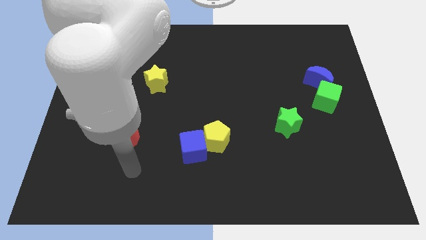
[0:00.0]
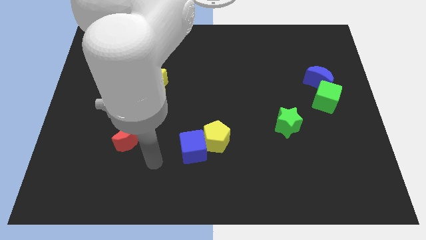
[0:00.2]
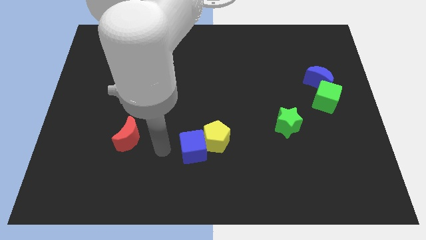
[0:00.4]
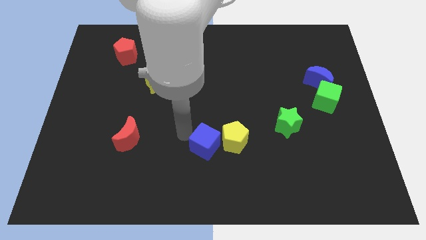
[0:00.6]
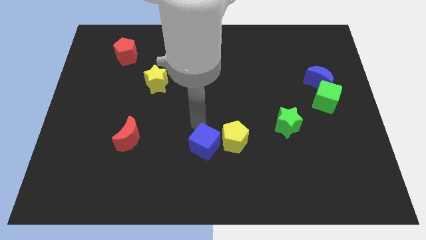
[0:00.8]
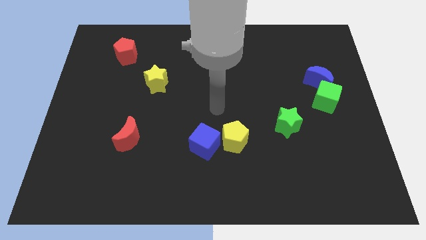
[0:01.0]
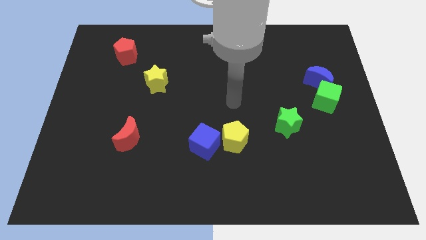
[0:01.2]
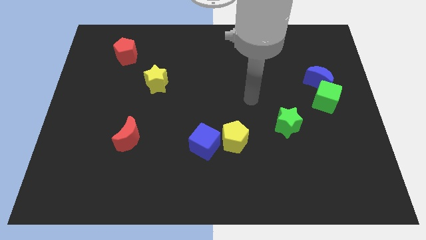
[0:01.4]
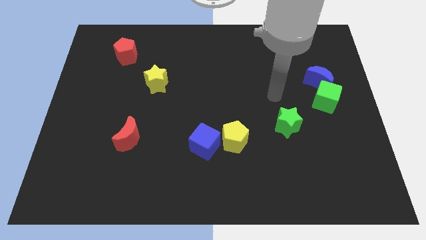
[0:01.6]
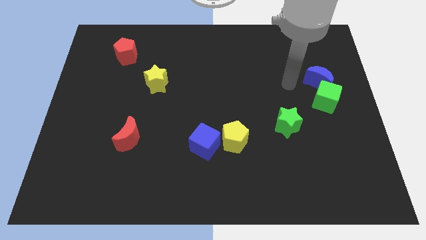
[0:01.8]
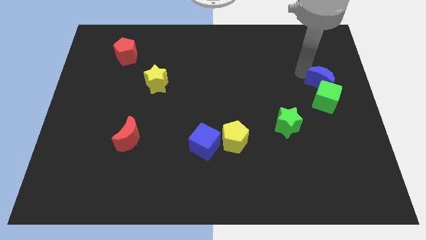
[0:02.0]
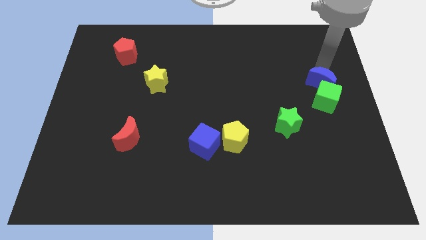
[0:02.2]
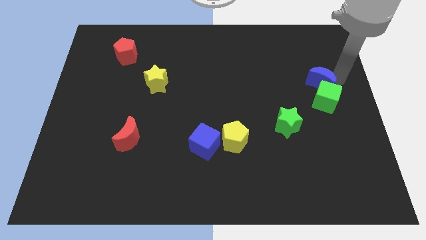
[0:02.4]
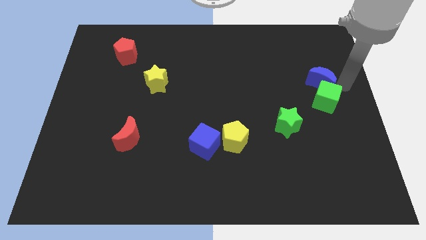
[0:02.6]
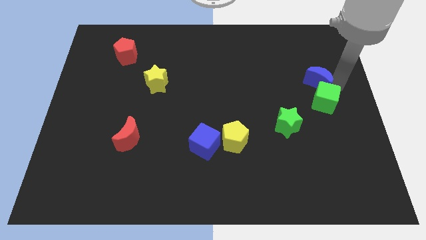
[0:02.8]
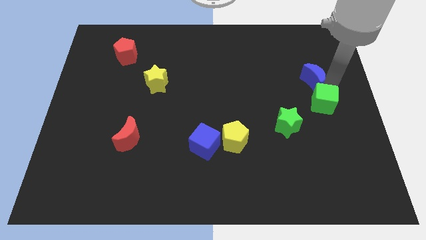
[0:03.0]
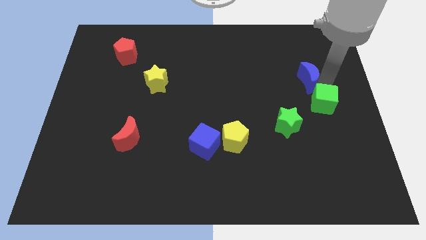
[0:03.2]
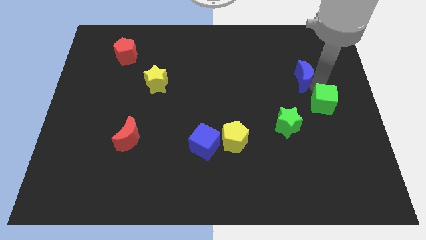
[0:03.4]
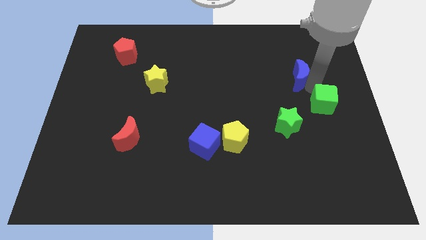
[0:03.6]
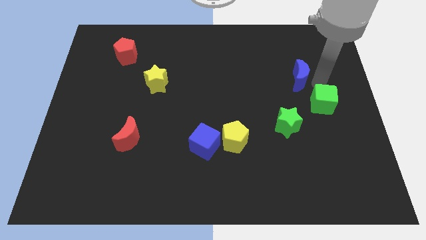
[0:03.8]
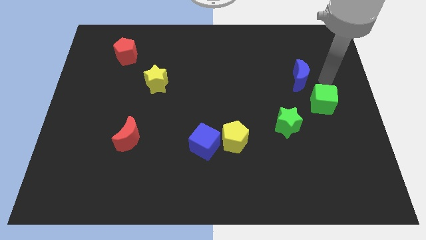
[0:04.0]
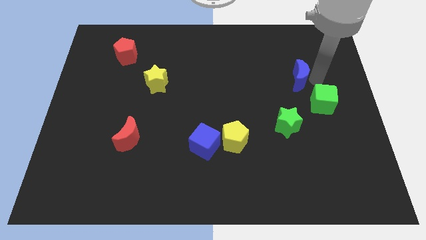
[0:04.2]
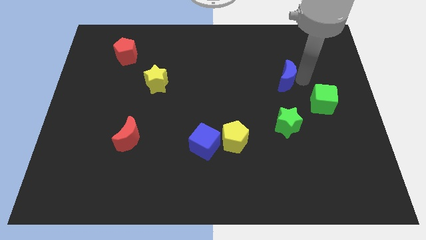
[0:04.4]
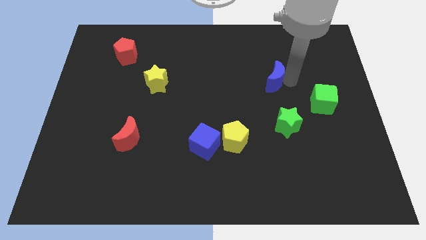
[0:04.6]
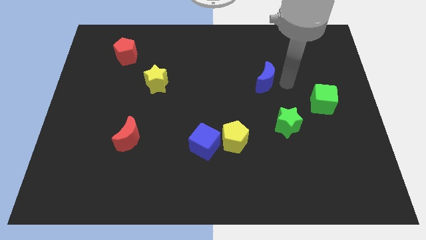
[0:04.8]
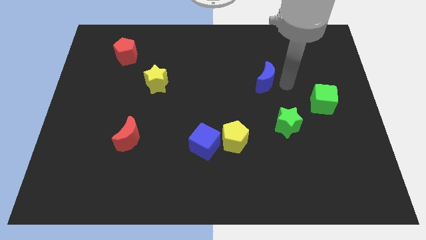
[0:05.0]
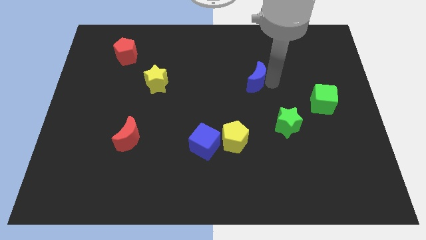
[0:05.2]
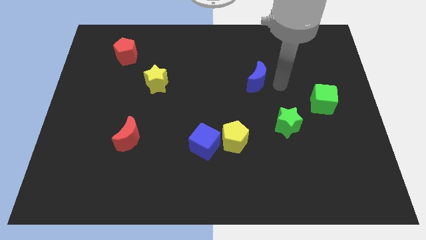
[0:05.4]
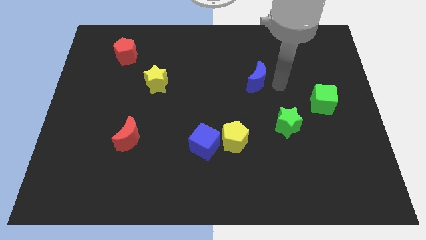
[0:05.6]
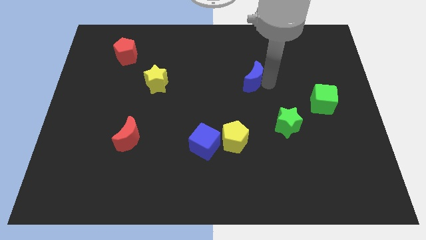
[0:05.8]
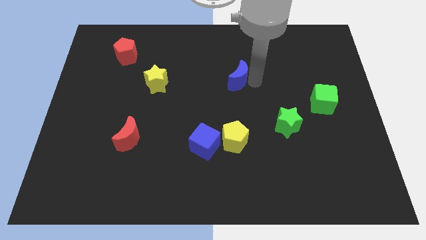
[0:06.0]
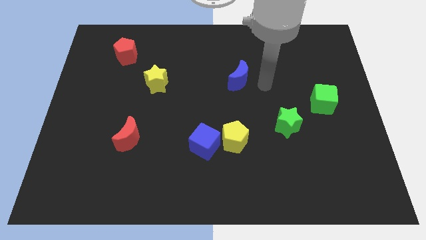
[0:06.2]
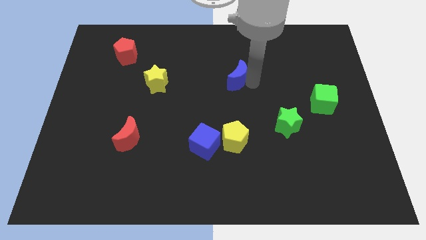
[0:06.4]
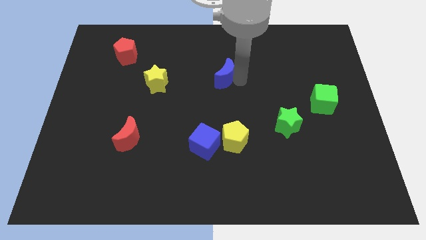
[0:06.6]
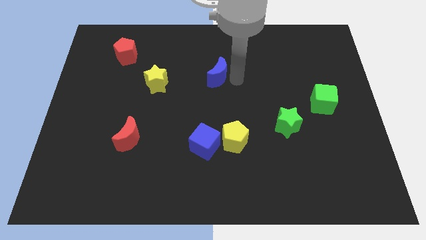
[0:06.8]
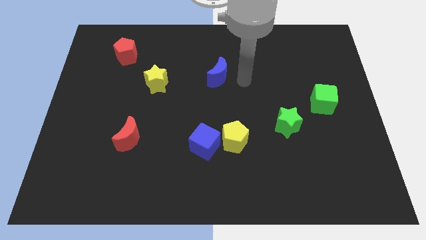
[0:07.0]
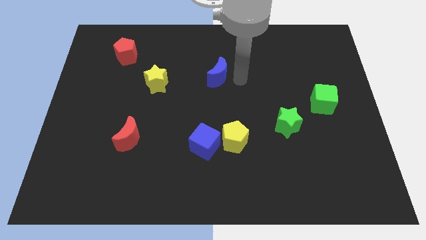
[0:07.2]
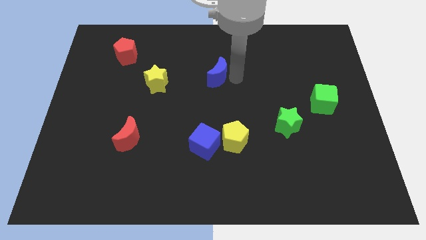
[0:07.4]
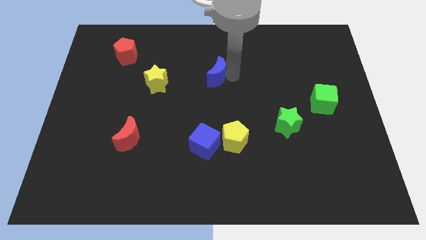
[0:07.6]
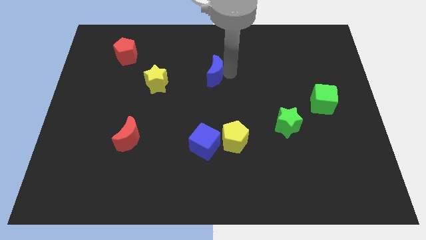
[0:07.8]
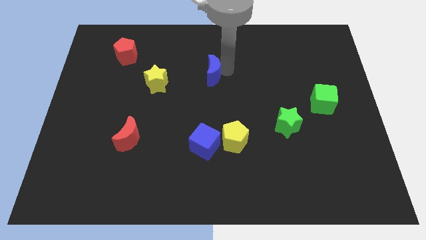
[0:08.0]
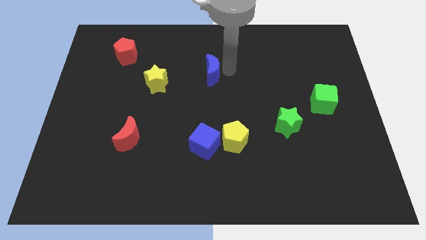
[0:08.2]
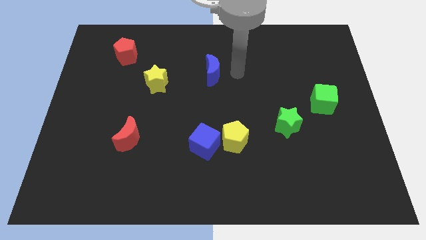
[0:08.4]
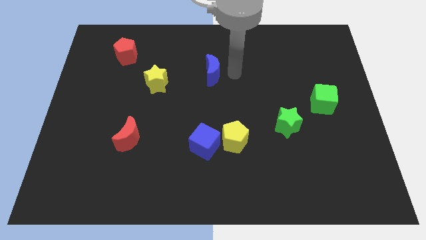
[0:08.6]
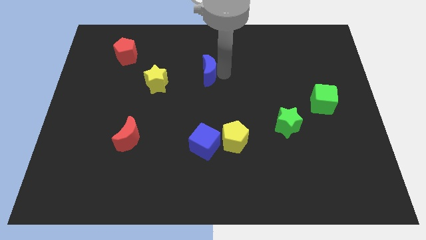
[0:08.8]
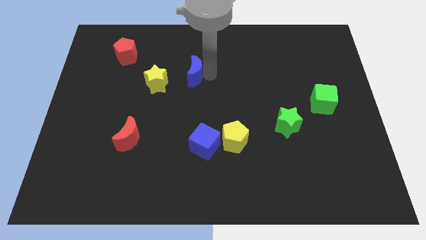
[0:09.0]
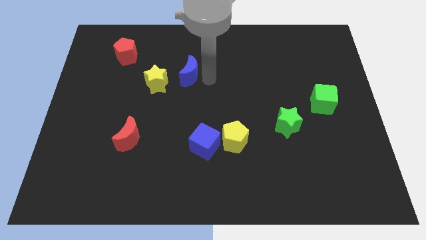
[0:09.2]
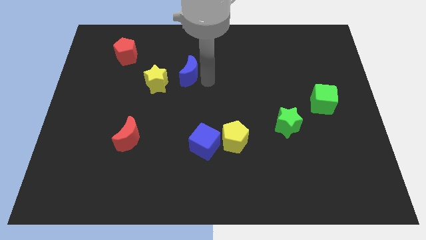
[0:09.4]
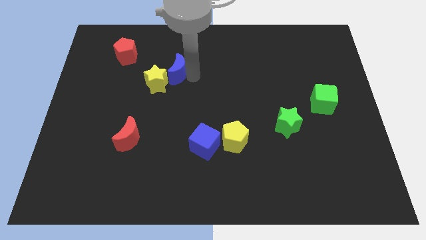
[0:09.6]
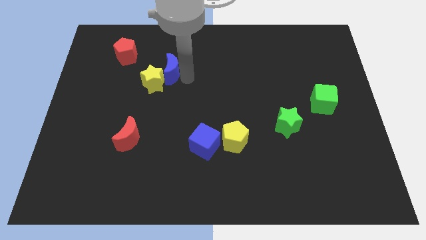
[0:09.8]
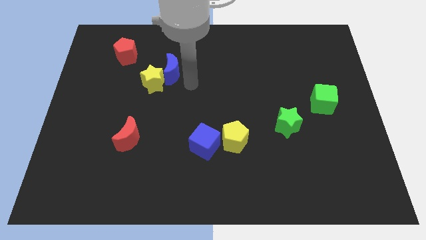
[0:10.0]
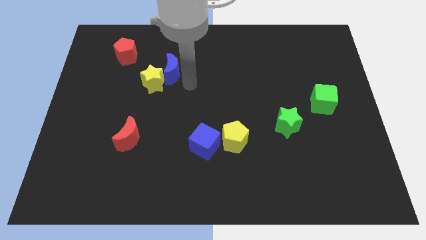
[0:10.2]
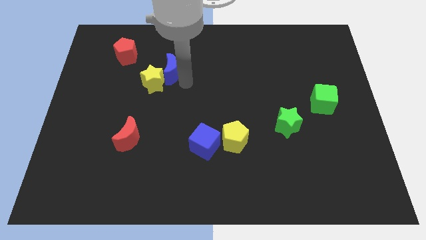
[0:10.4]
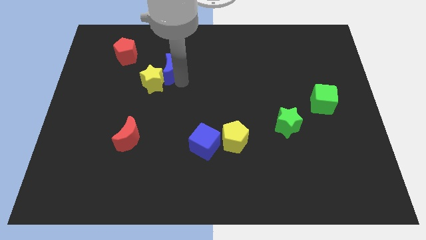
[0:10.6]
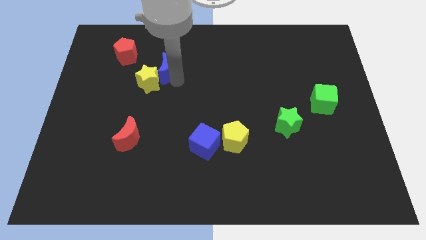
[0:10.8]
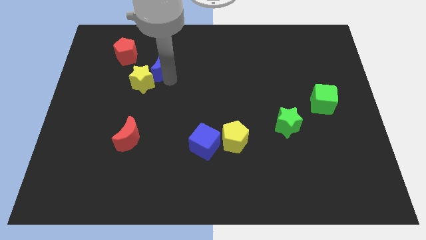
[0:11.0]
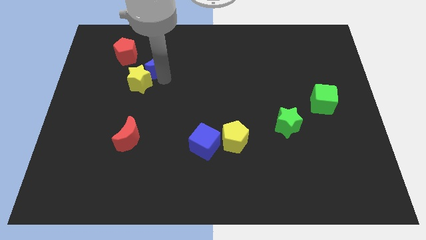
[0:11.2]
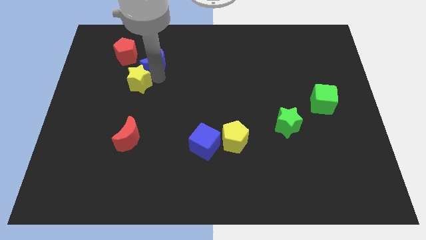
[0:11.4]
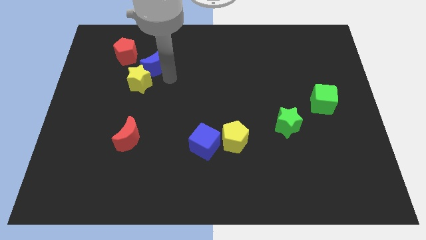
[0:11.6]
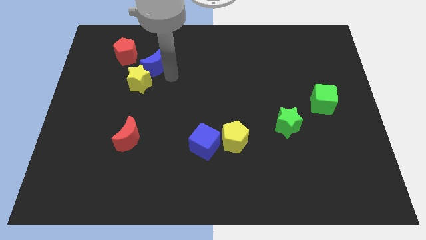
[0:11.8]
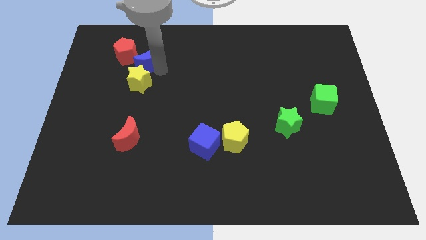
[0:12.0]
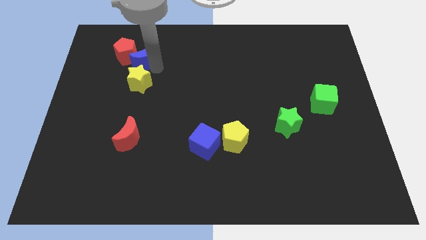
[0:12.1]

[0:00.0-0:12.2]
put the blue moon to the red pentagon

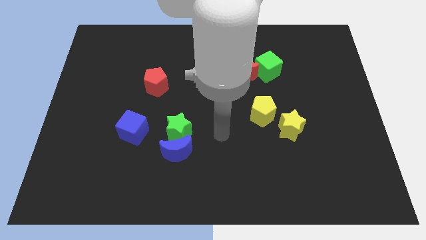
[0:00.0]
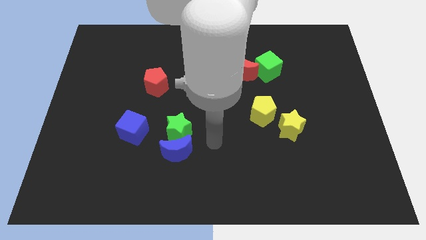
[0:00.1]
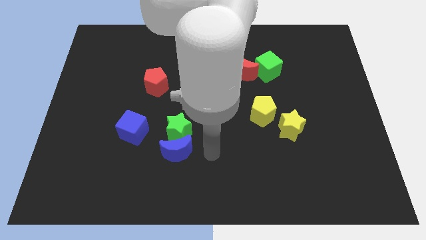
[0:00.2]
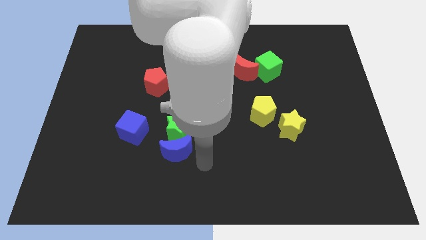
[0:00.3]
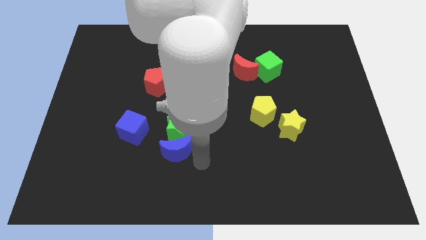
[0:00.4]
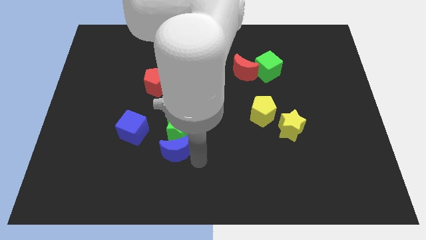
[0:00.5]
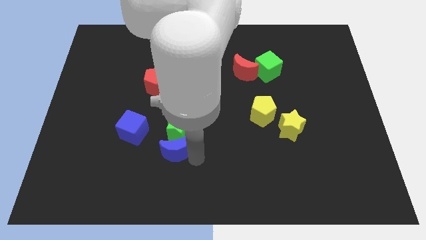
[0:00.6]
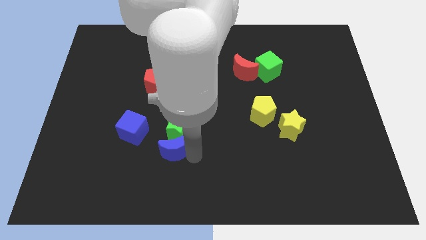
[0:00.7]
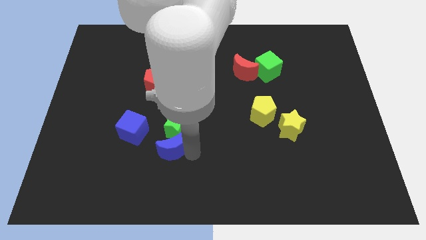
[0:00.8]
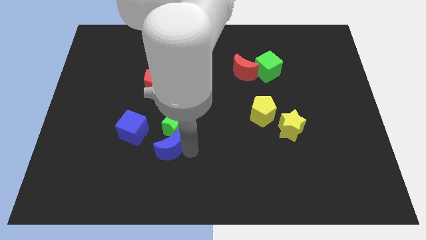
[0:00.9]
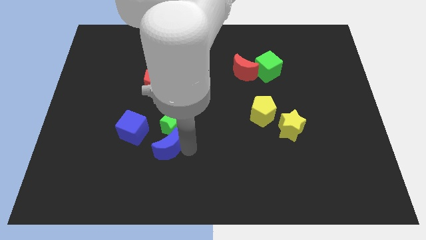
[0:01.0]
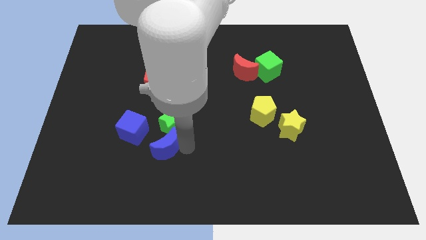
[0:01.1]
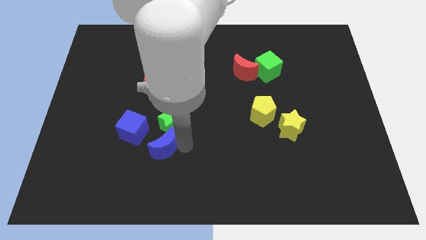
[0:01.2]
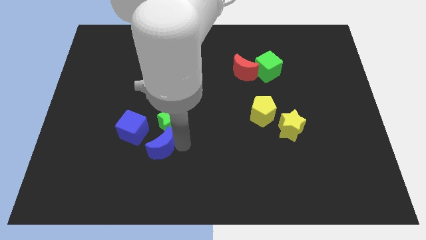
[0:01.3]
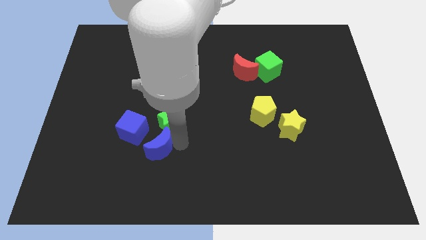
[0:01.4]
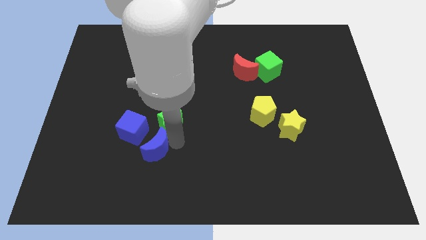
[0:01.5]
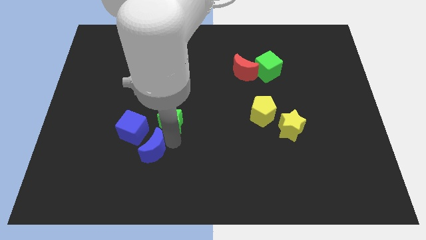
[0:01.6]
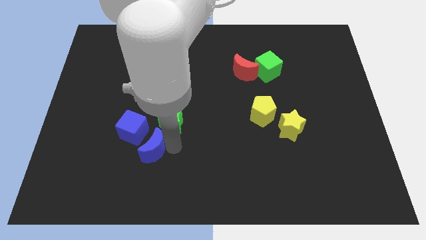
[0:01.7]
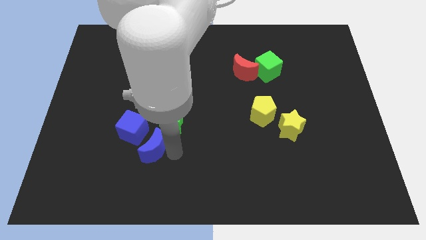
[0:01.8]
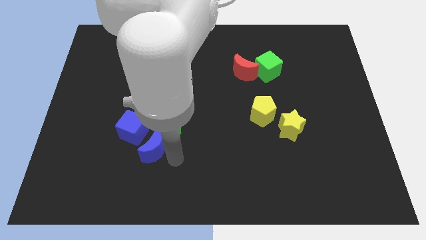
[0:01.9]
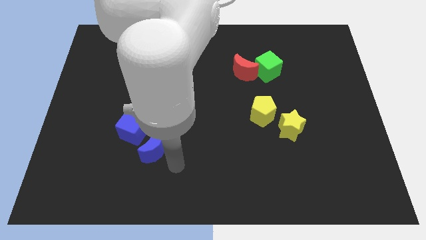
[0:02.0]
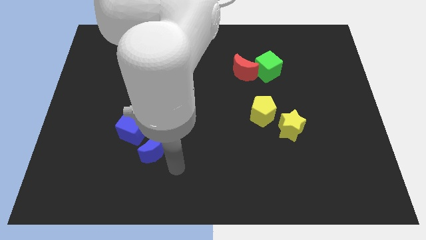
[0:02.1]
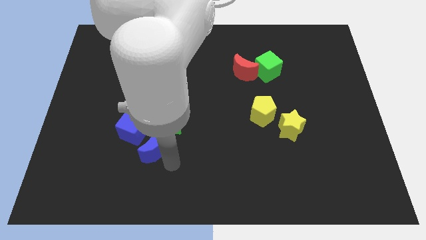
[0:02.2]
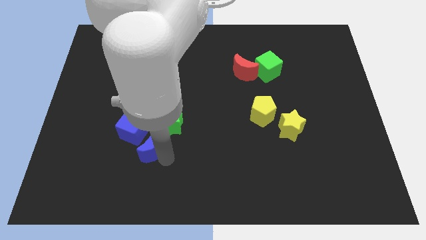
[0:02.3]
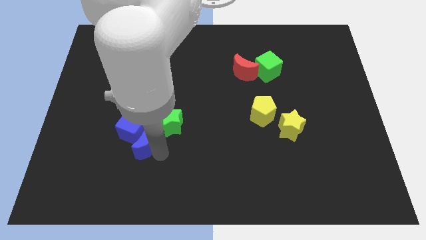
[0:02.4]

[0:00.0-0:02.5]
put the blue moon towards the blue cube
